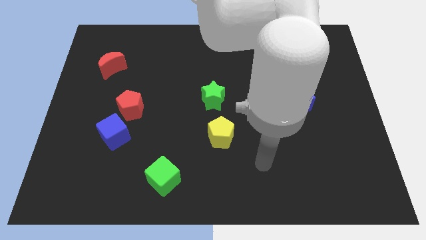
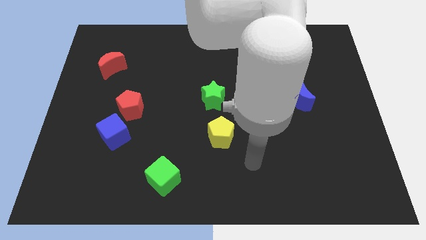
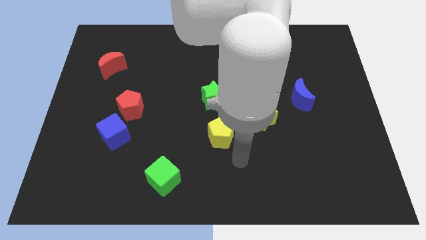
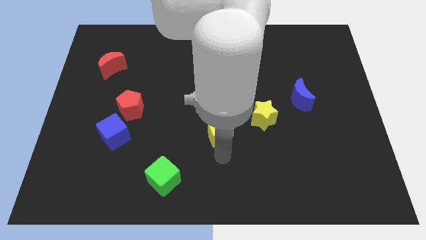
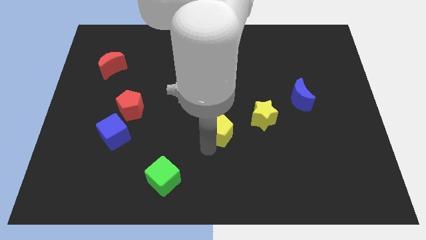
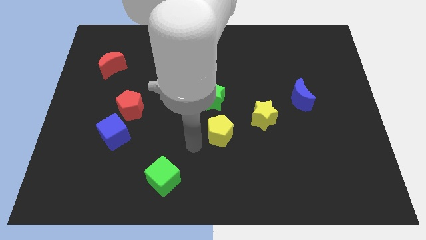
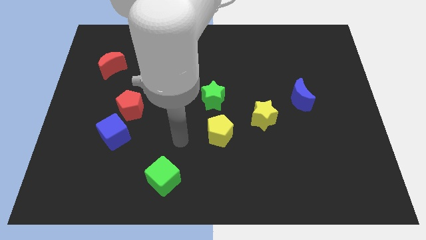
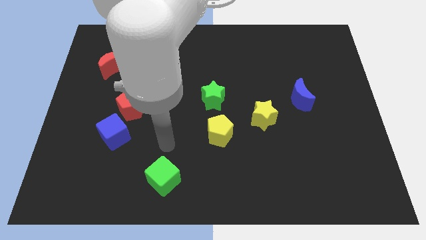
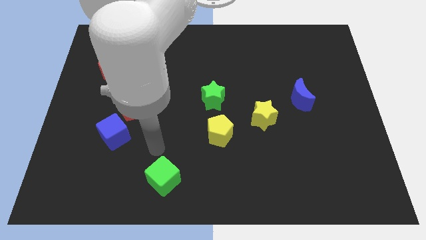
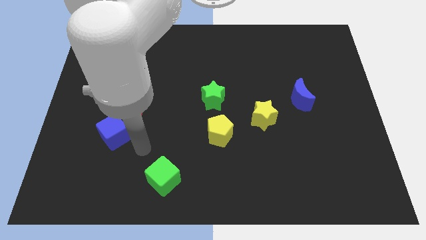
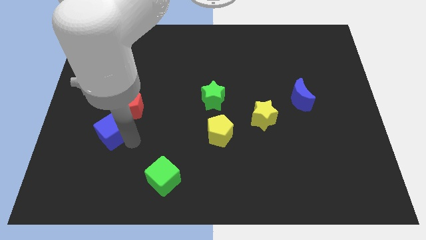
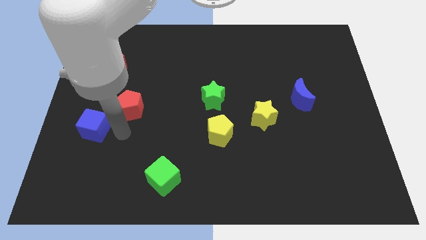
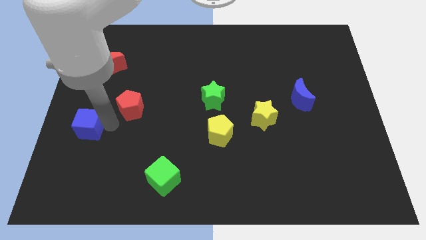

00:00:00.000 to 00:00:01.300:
move the red pentagon away from the blue cube

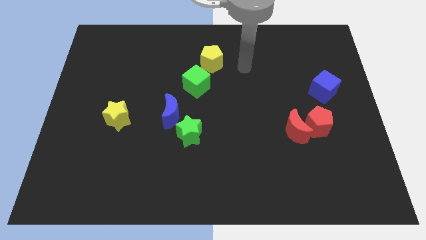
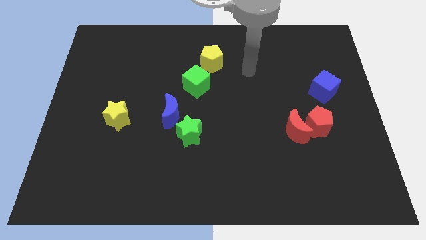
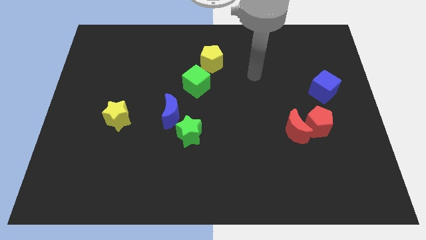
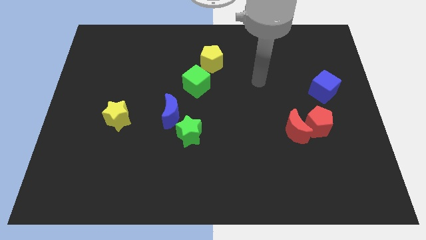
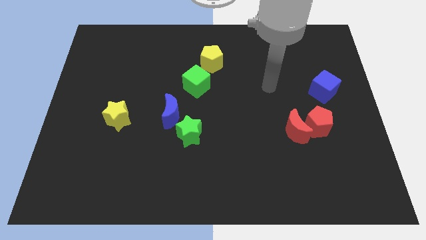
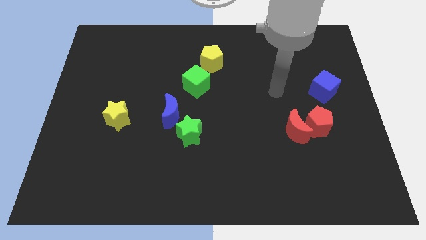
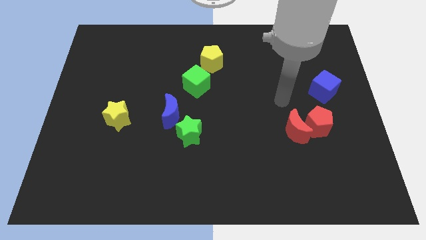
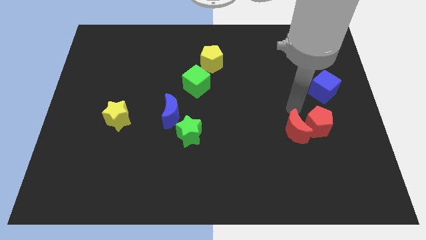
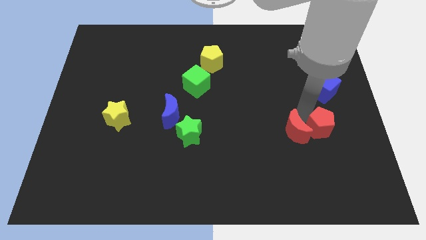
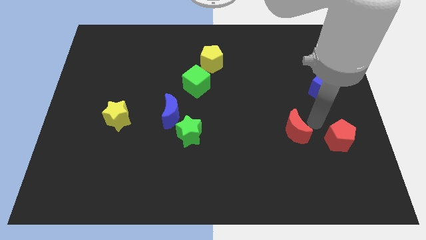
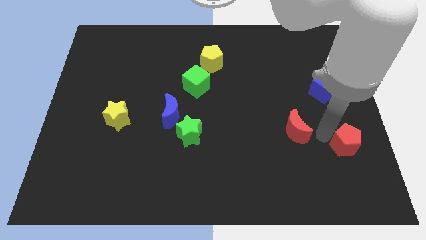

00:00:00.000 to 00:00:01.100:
move the red moon away from the red pentagon

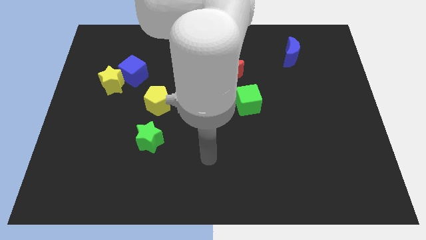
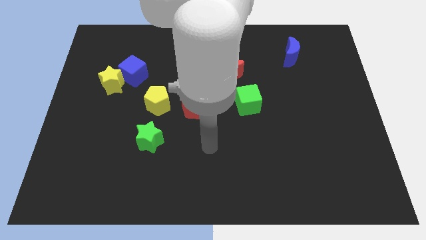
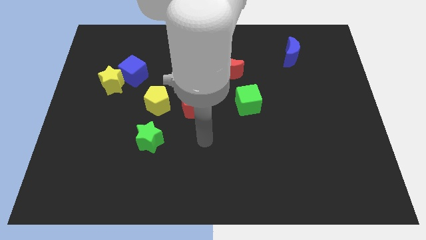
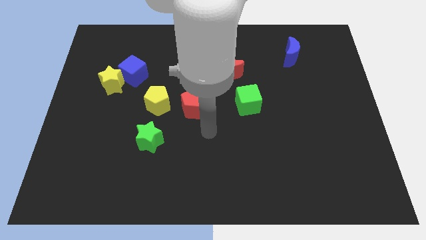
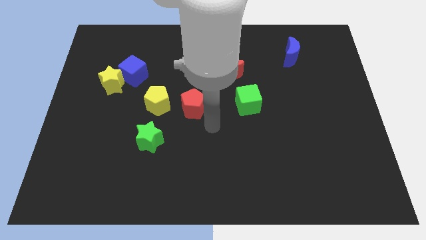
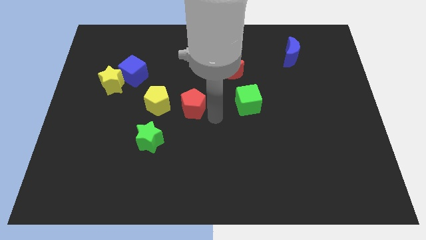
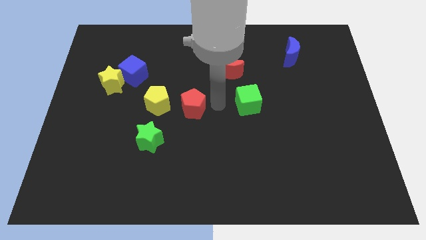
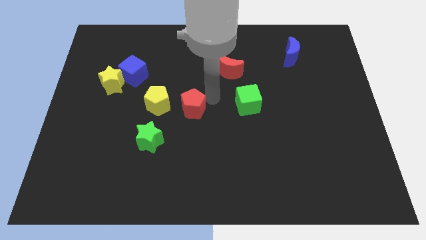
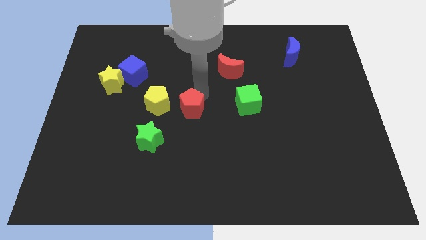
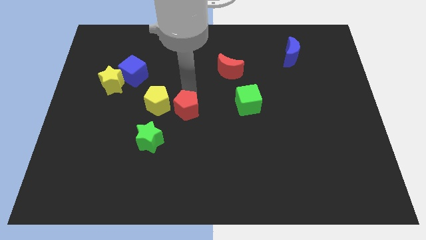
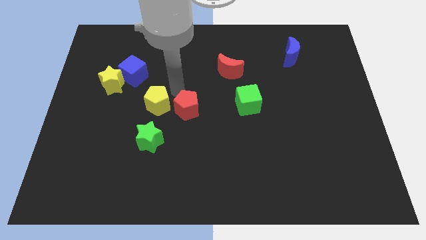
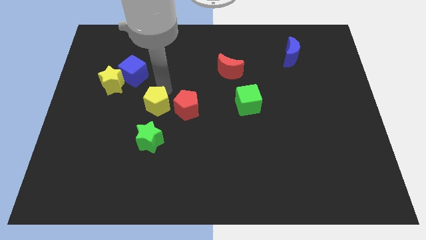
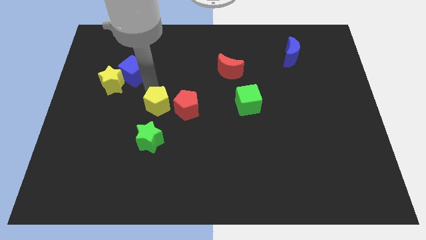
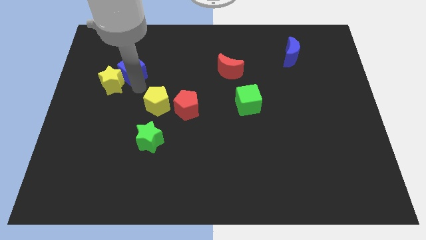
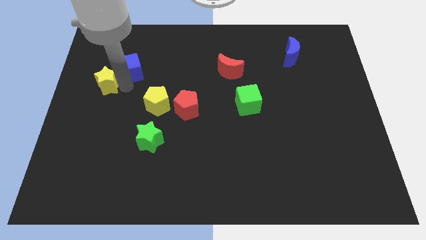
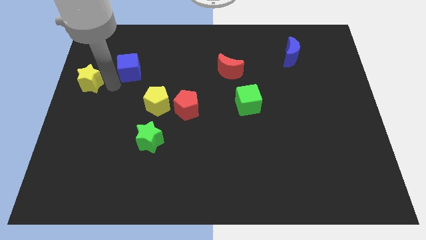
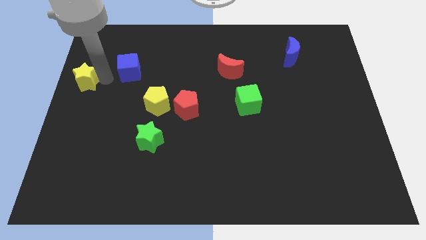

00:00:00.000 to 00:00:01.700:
move the blue cube away from the yellow star

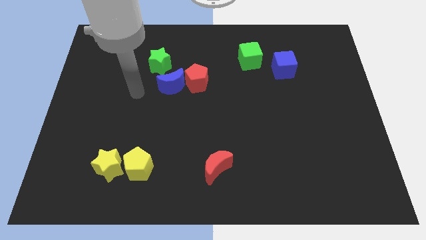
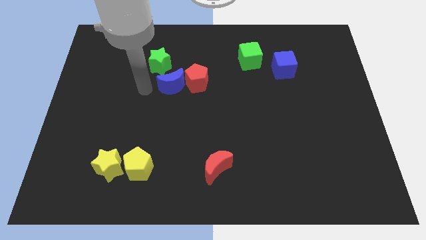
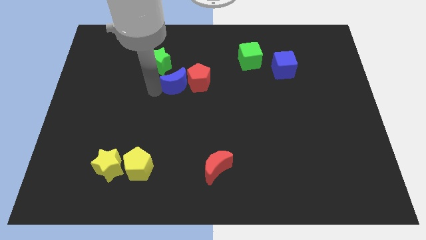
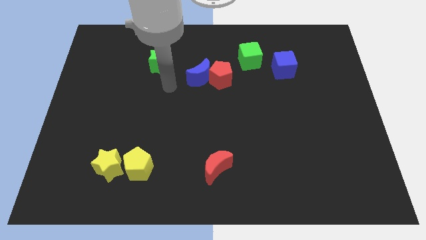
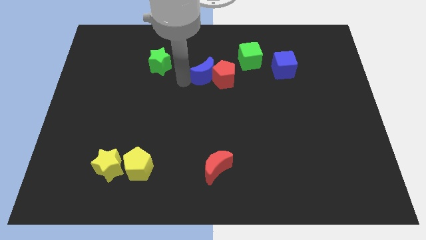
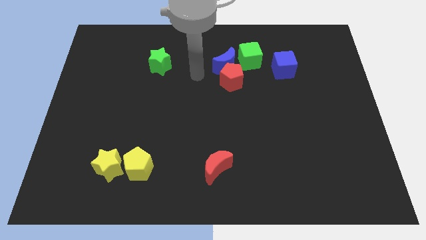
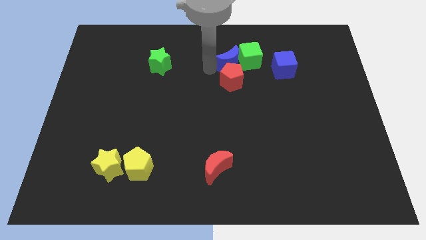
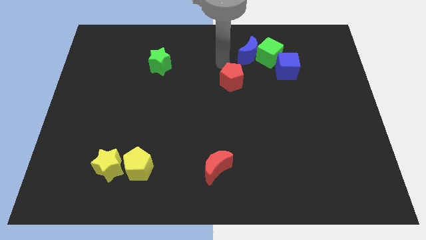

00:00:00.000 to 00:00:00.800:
separate the red pentagon from the blue moon

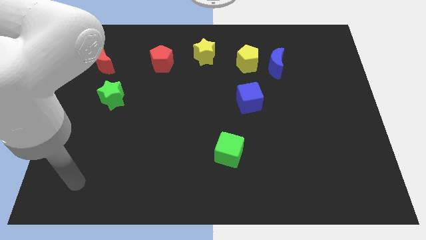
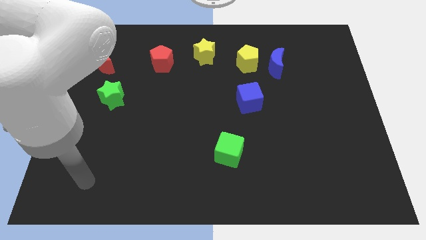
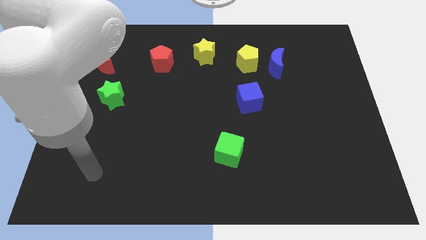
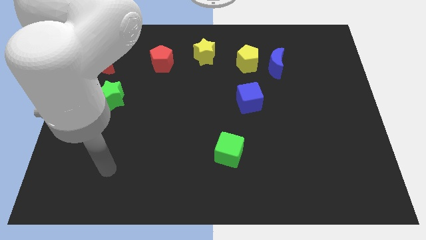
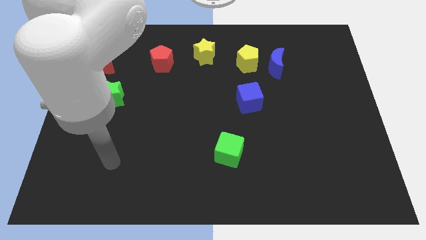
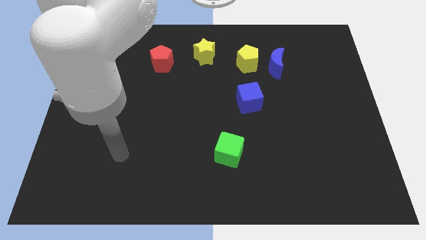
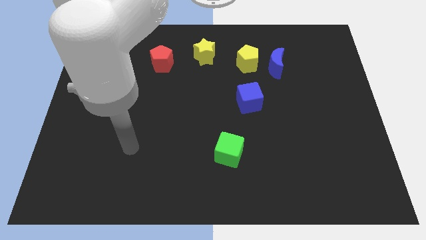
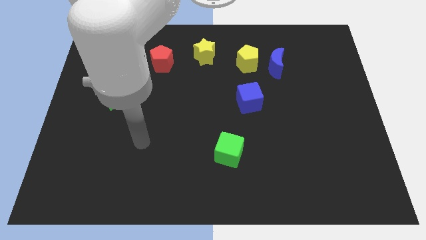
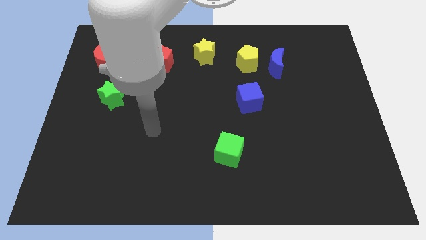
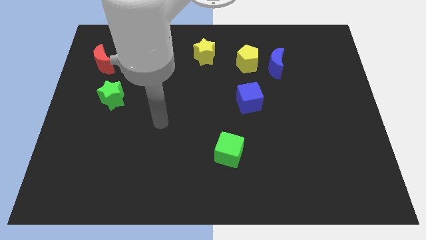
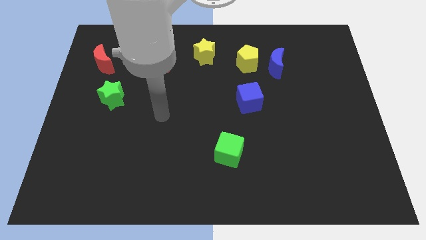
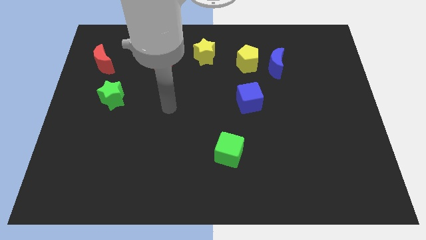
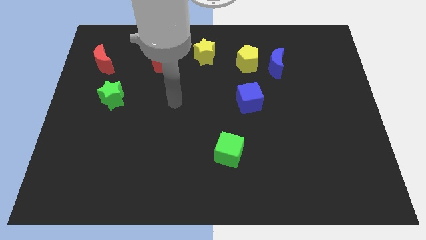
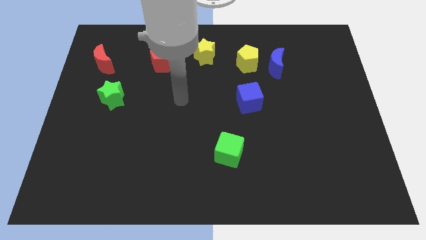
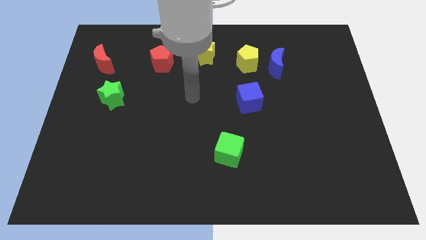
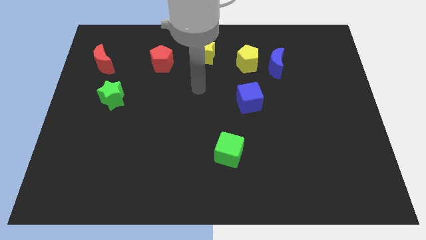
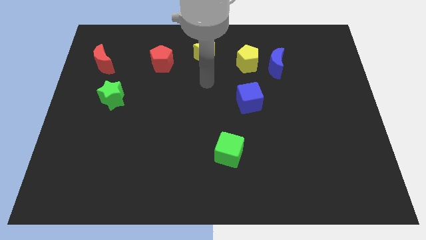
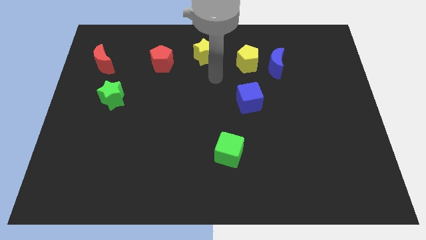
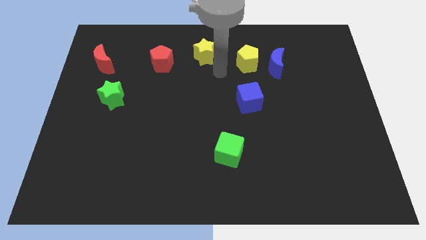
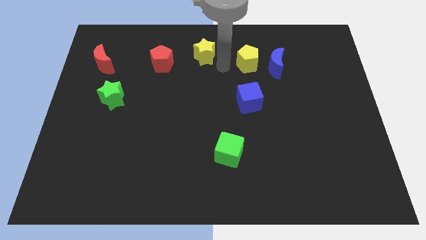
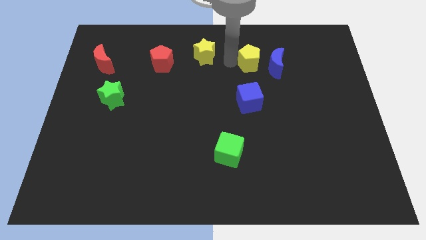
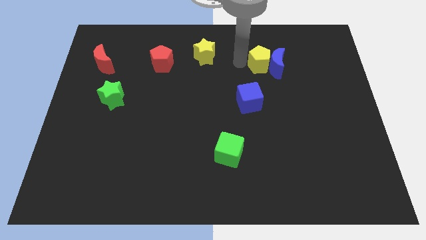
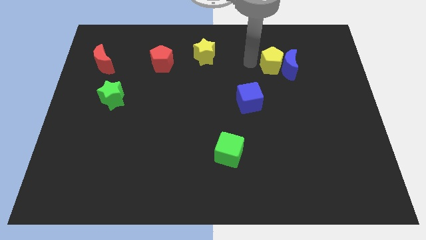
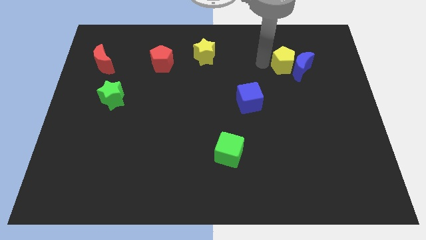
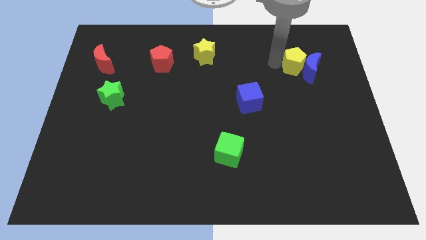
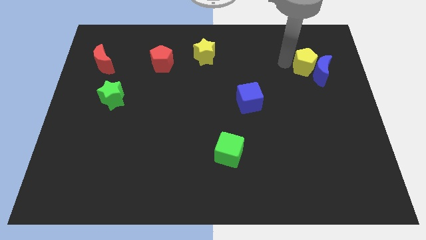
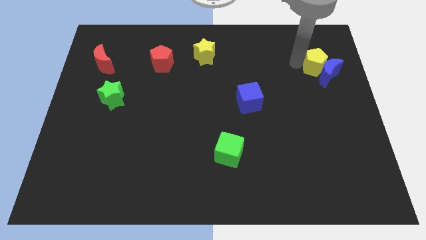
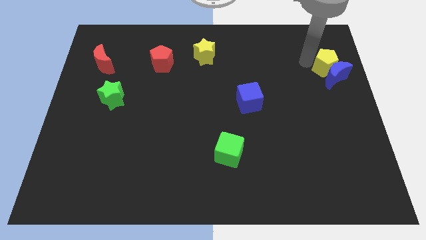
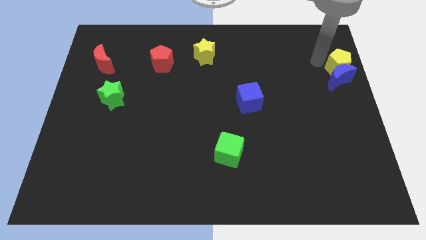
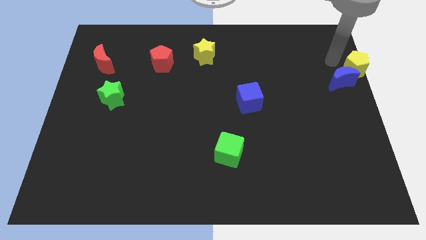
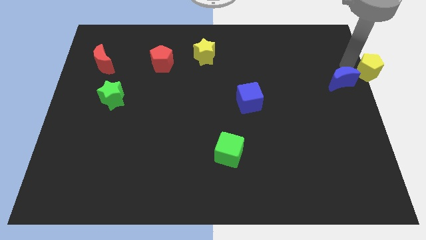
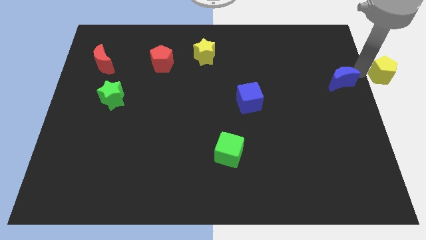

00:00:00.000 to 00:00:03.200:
pull the blue moon apart from the yellow pentagon

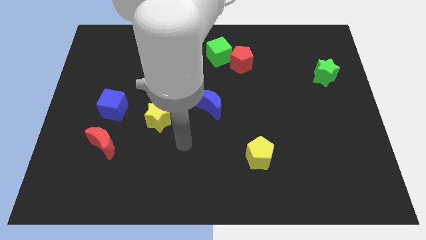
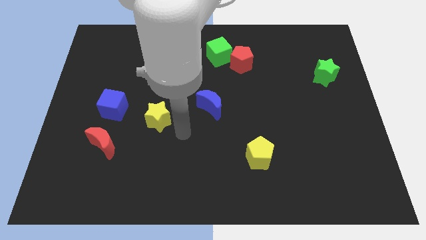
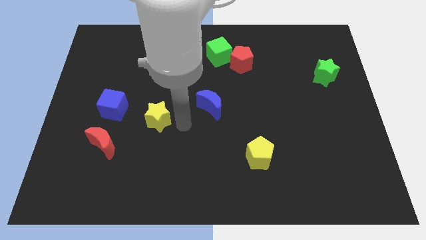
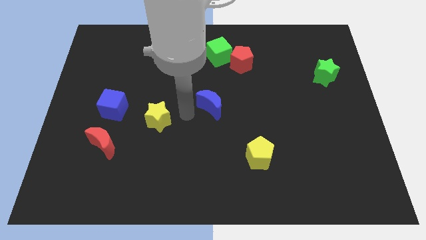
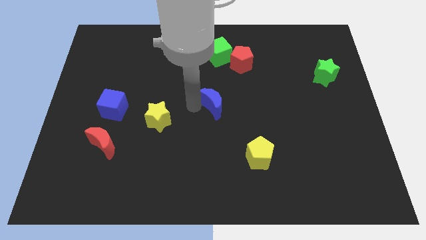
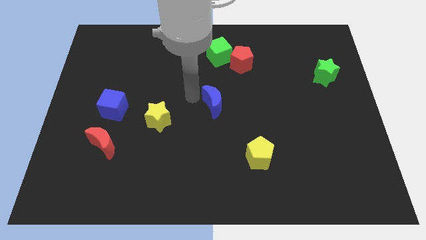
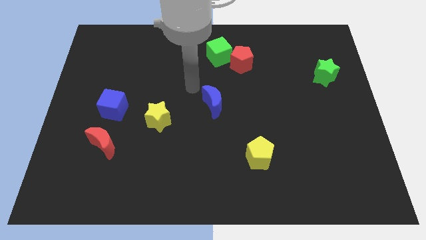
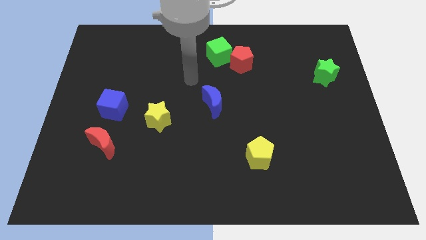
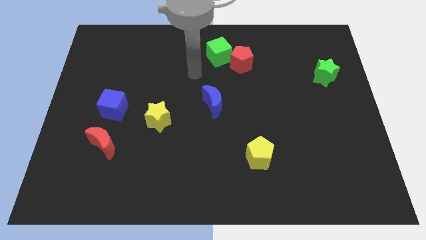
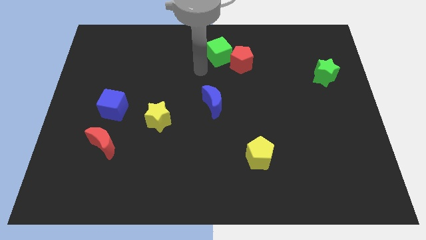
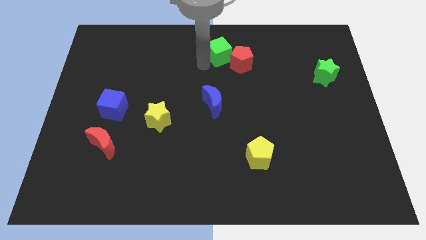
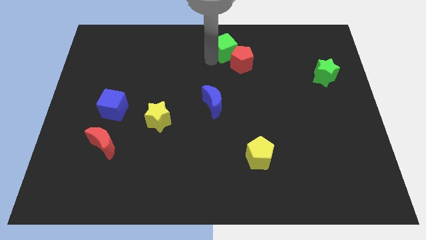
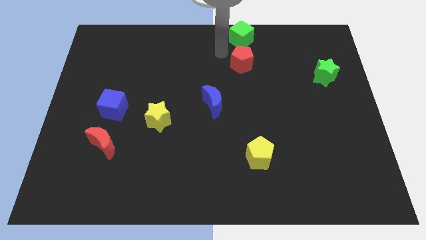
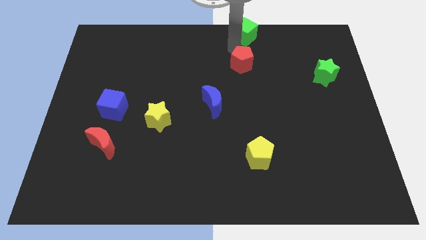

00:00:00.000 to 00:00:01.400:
separate the red pentagon from the green cube
